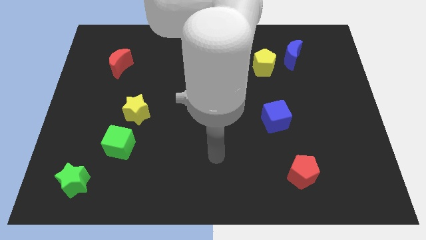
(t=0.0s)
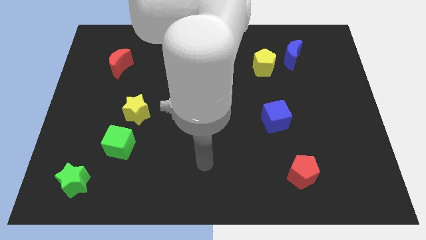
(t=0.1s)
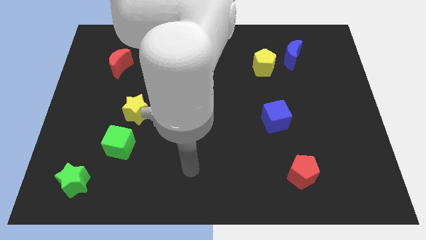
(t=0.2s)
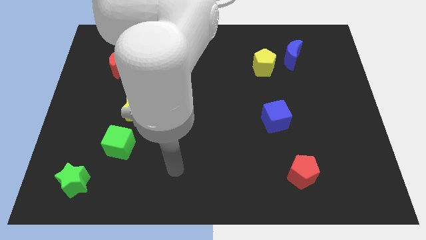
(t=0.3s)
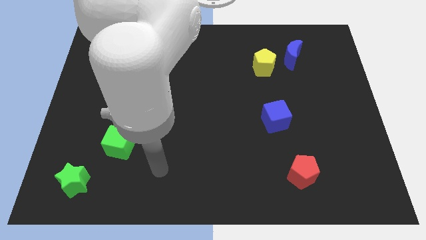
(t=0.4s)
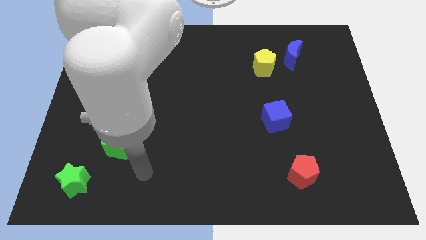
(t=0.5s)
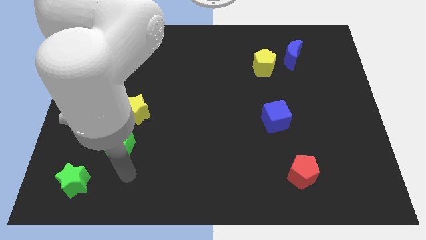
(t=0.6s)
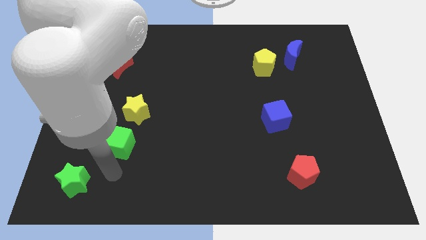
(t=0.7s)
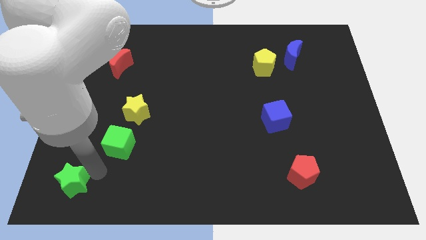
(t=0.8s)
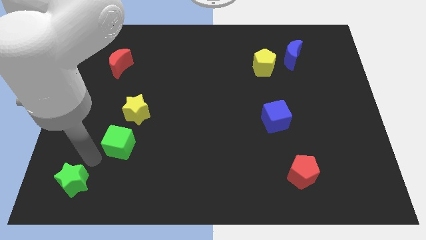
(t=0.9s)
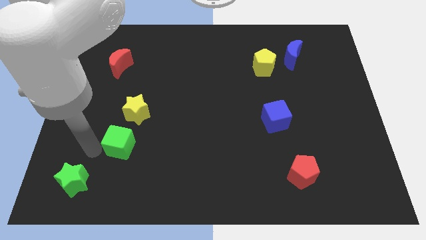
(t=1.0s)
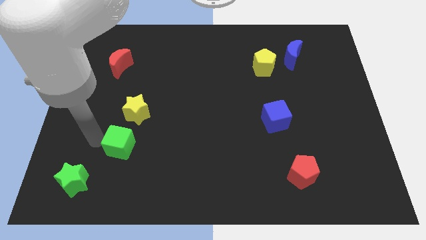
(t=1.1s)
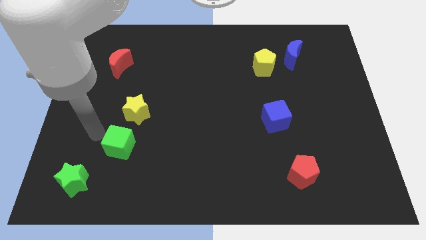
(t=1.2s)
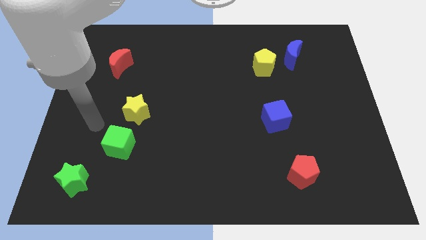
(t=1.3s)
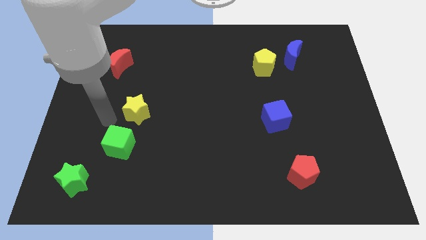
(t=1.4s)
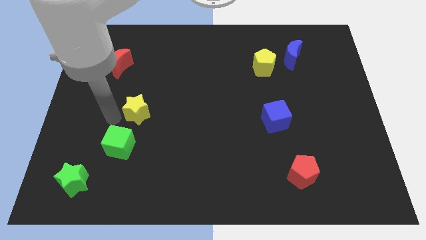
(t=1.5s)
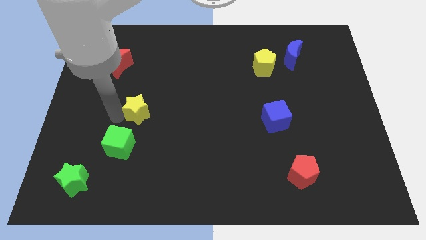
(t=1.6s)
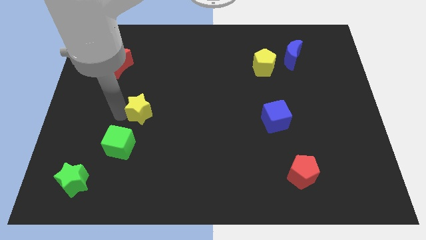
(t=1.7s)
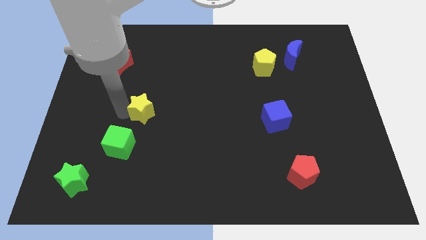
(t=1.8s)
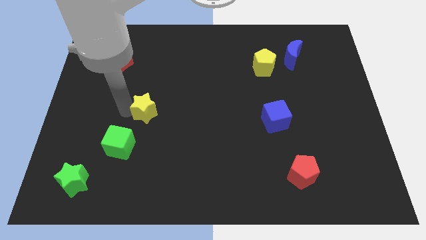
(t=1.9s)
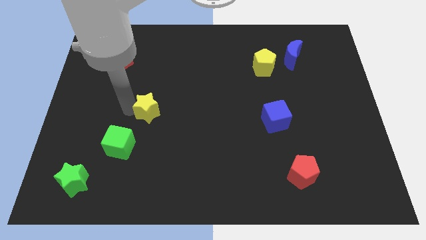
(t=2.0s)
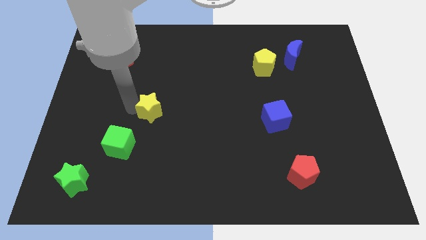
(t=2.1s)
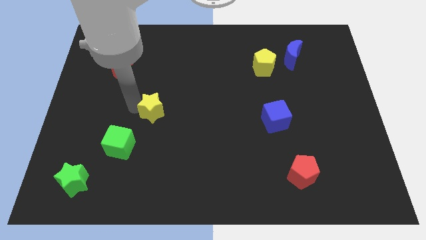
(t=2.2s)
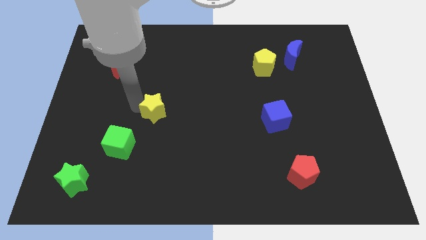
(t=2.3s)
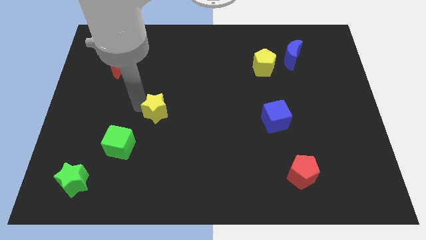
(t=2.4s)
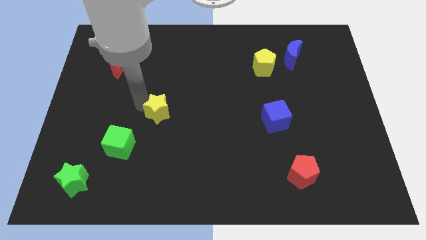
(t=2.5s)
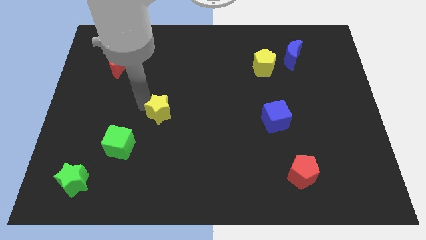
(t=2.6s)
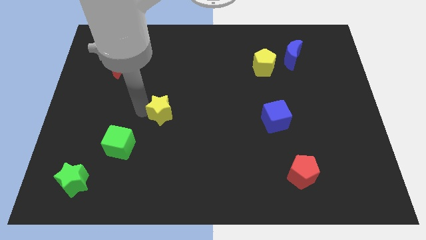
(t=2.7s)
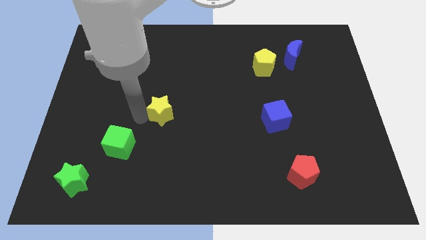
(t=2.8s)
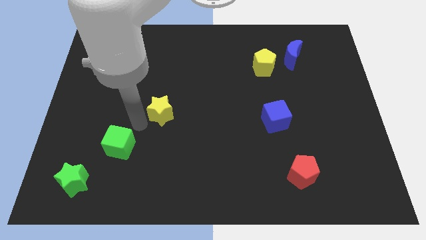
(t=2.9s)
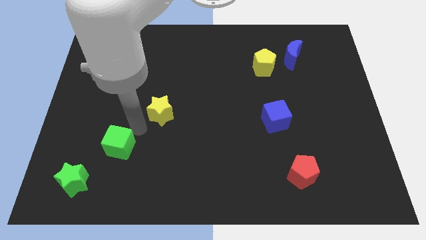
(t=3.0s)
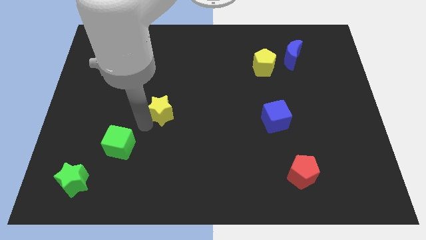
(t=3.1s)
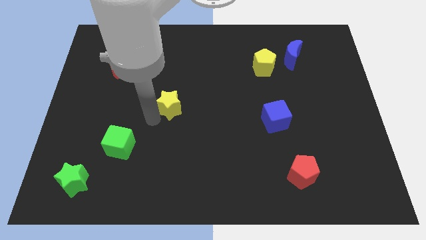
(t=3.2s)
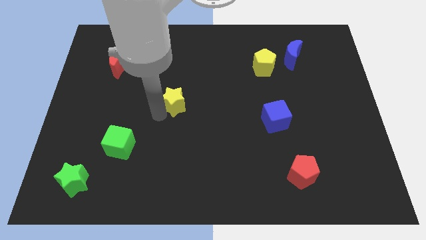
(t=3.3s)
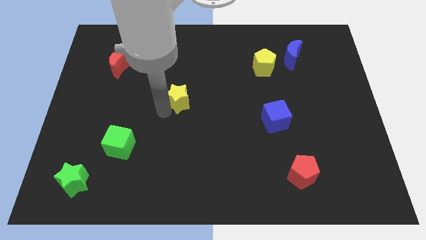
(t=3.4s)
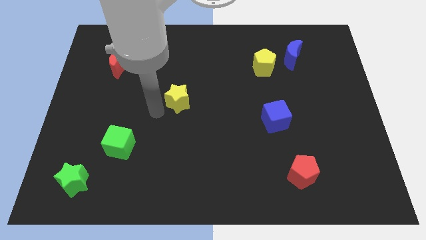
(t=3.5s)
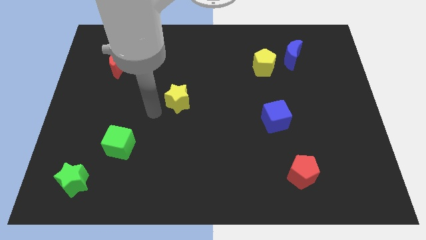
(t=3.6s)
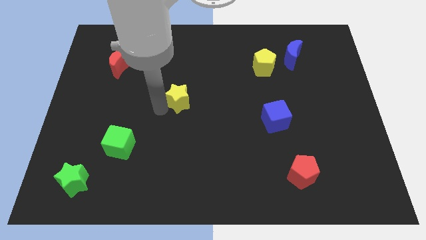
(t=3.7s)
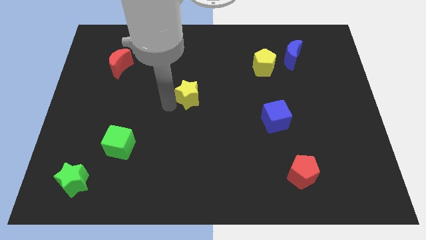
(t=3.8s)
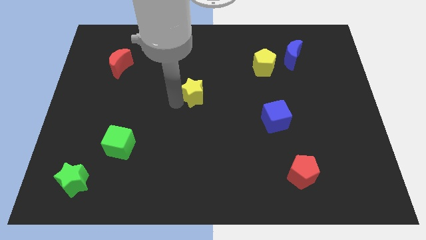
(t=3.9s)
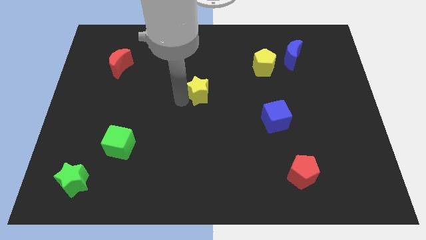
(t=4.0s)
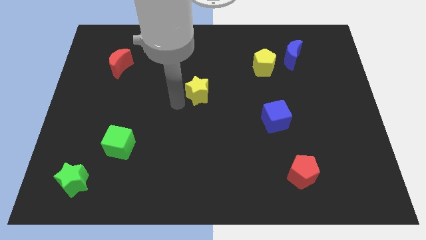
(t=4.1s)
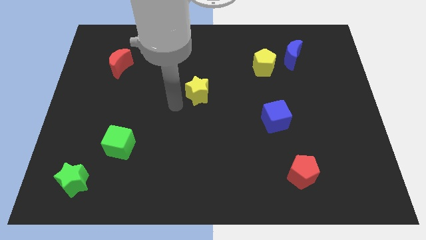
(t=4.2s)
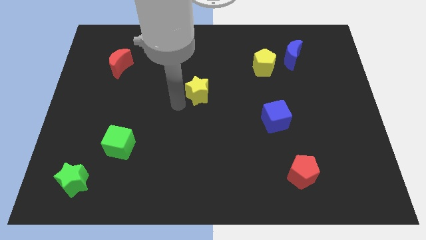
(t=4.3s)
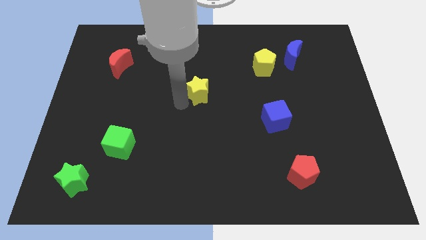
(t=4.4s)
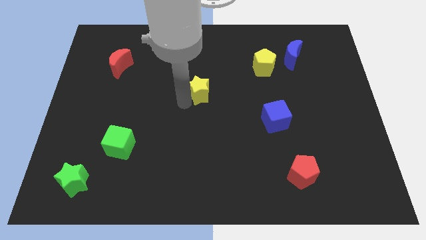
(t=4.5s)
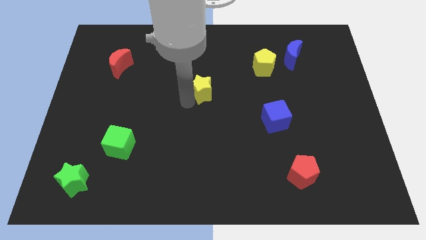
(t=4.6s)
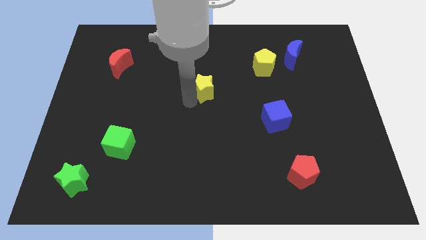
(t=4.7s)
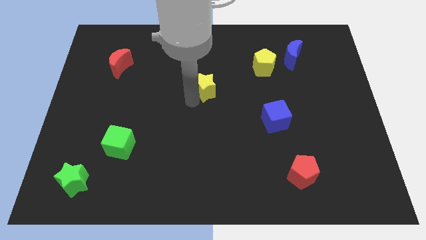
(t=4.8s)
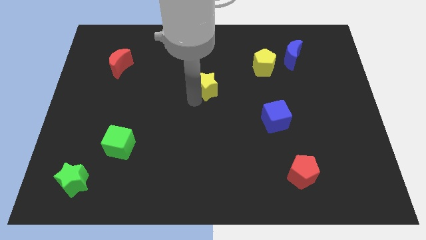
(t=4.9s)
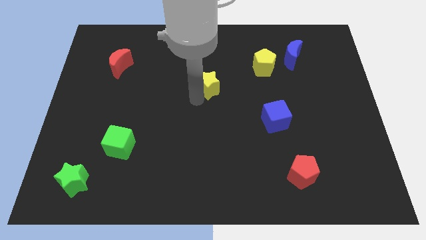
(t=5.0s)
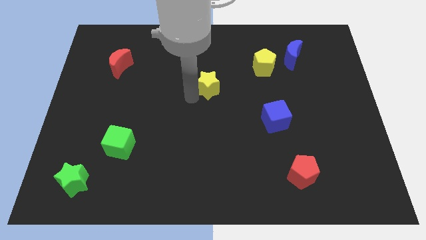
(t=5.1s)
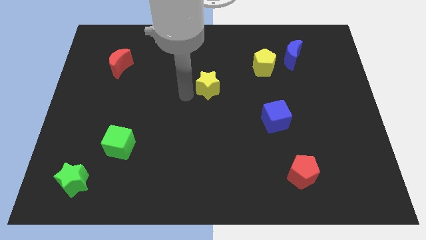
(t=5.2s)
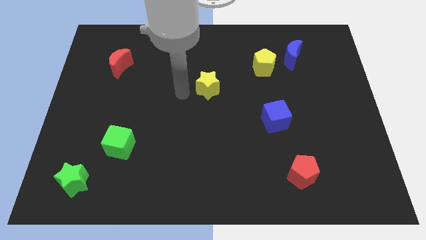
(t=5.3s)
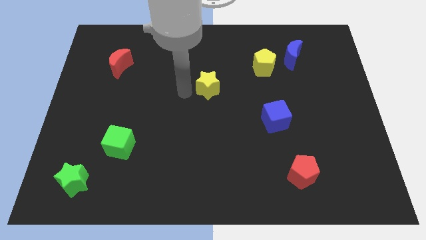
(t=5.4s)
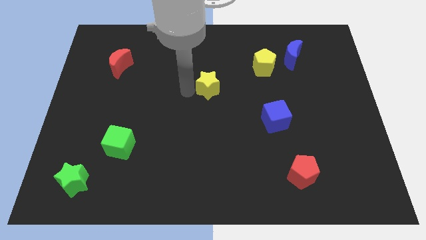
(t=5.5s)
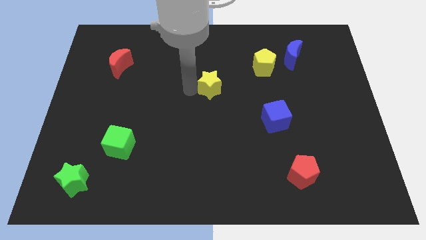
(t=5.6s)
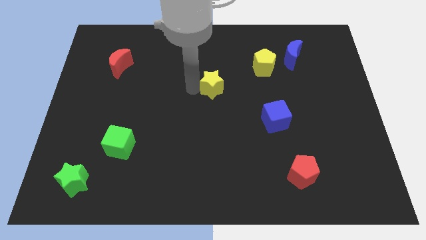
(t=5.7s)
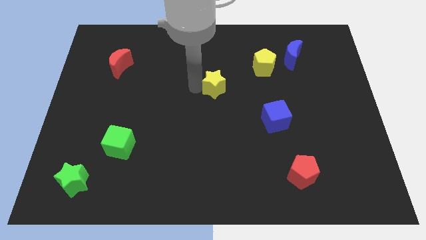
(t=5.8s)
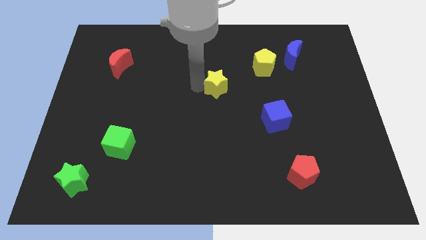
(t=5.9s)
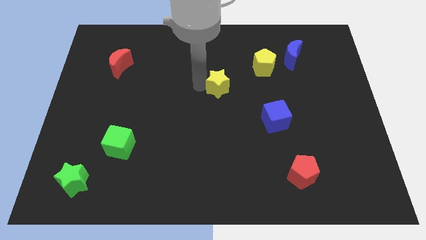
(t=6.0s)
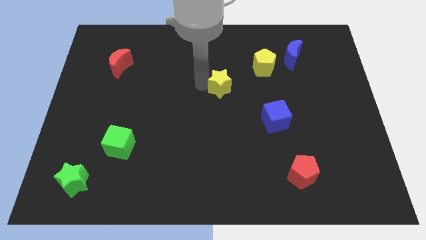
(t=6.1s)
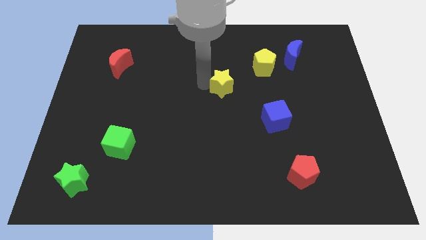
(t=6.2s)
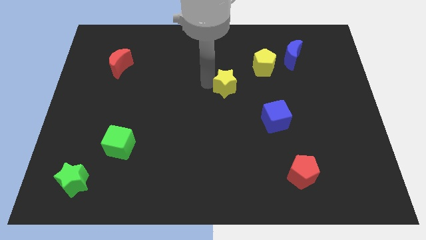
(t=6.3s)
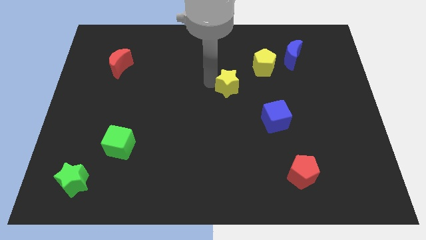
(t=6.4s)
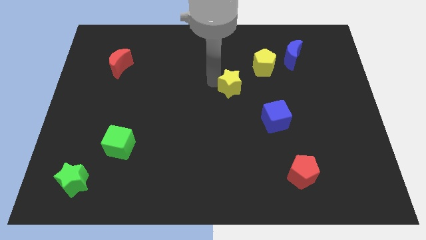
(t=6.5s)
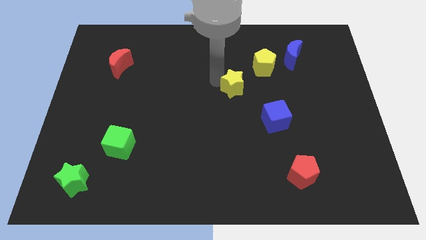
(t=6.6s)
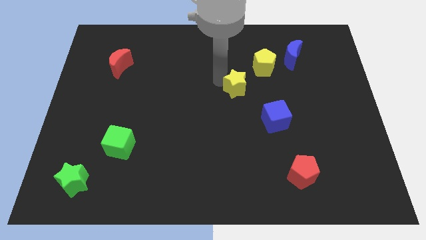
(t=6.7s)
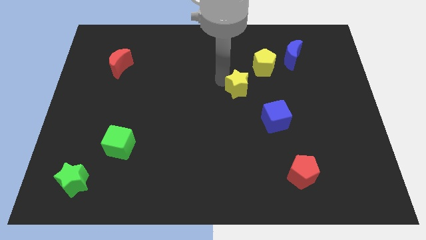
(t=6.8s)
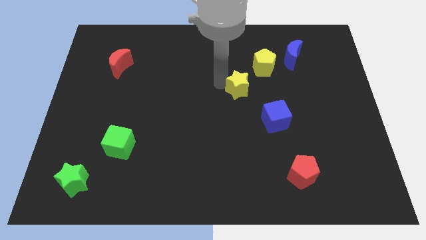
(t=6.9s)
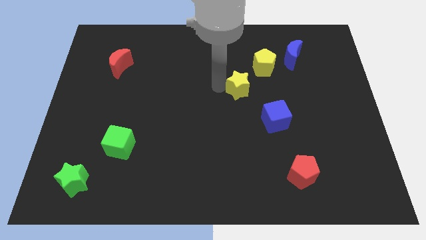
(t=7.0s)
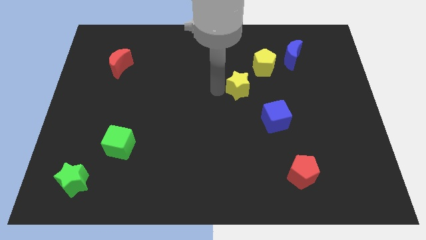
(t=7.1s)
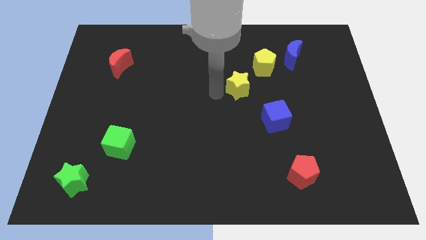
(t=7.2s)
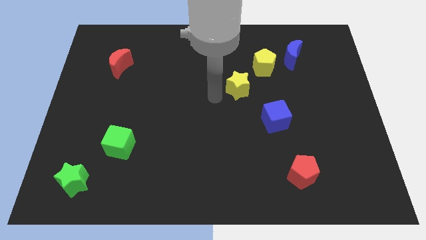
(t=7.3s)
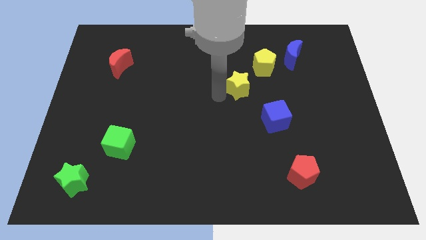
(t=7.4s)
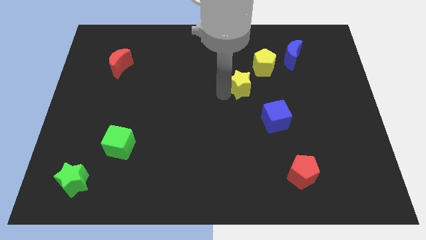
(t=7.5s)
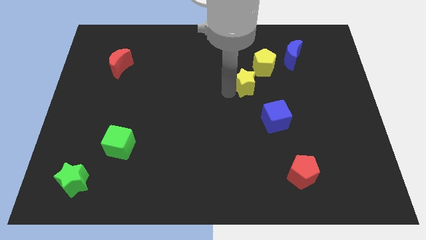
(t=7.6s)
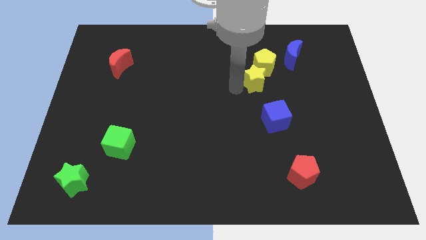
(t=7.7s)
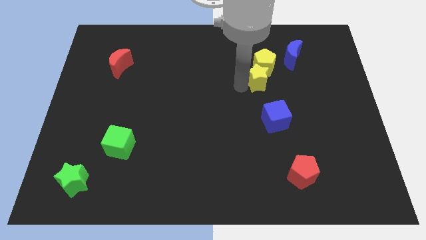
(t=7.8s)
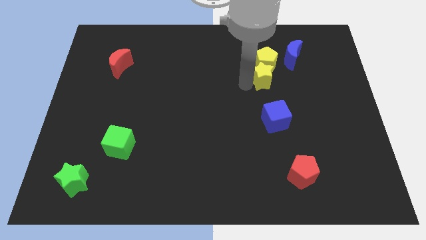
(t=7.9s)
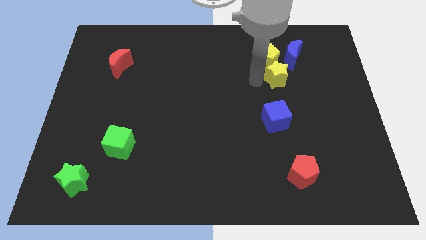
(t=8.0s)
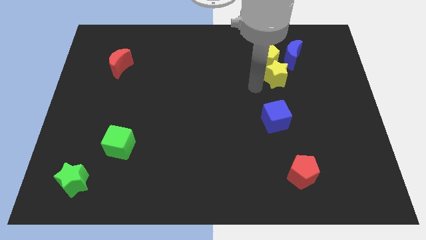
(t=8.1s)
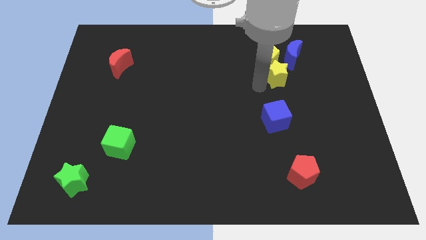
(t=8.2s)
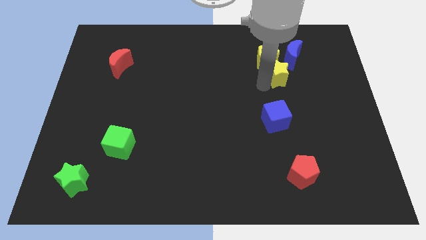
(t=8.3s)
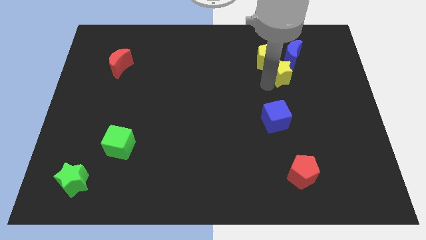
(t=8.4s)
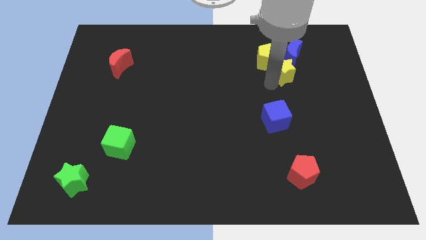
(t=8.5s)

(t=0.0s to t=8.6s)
put the yellow star to the right side of the yellow pentagon
